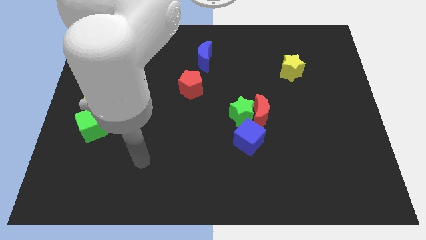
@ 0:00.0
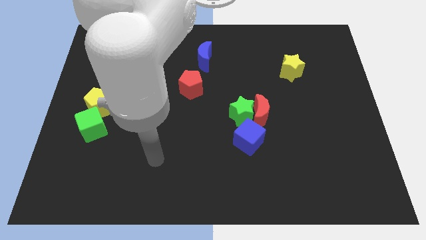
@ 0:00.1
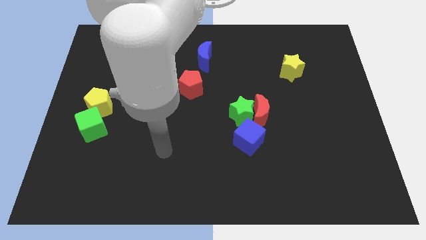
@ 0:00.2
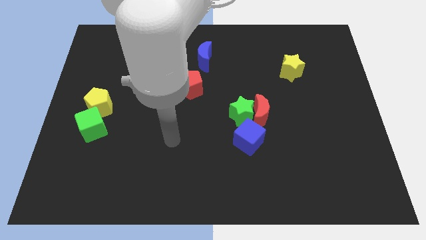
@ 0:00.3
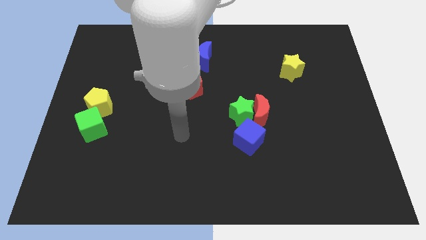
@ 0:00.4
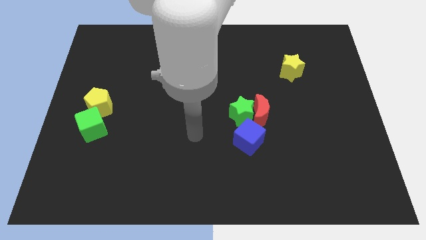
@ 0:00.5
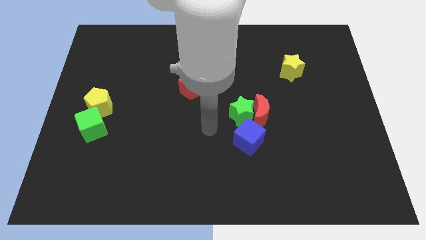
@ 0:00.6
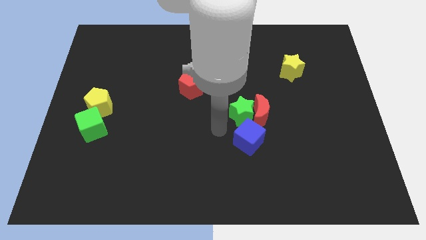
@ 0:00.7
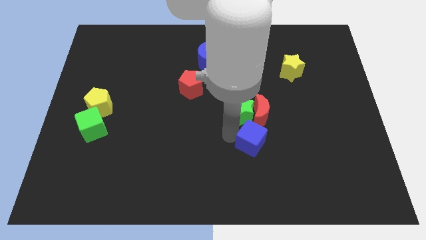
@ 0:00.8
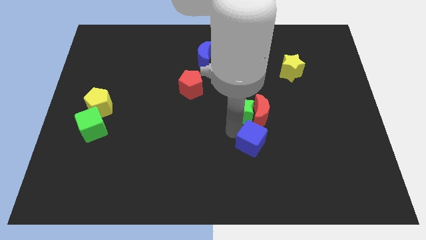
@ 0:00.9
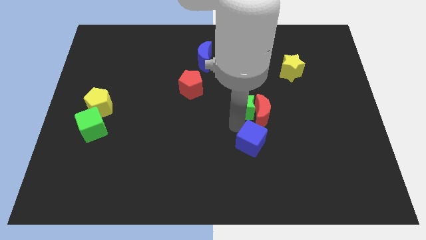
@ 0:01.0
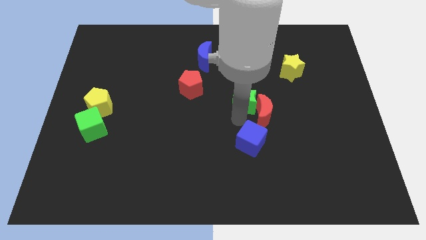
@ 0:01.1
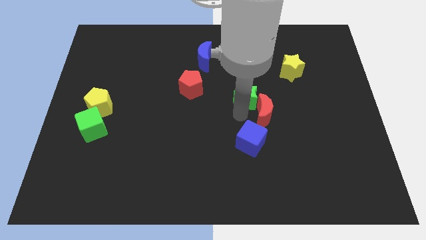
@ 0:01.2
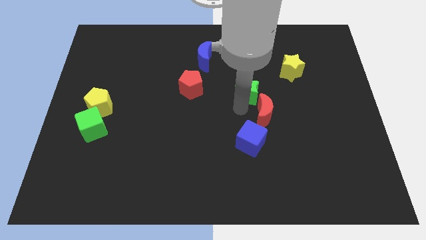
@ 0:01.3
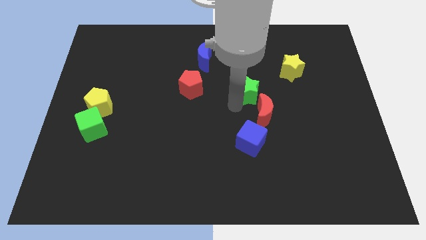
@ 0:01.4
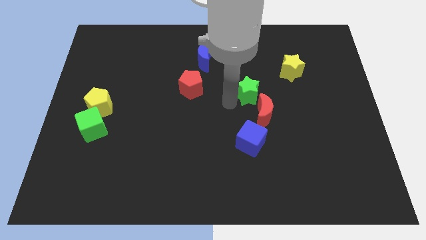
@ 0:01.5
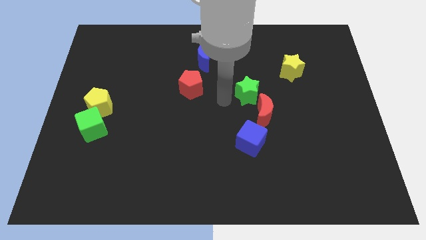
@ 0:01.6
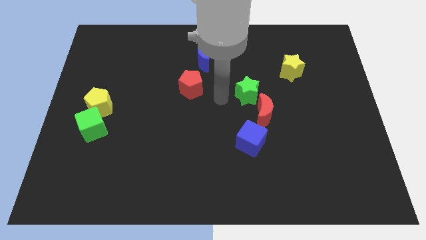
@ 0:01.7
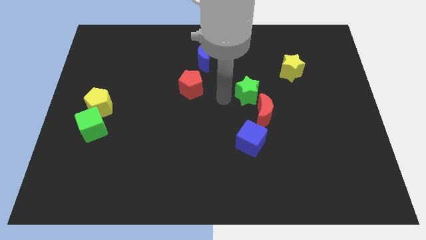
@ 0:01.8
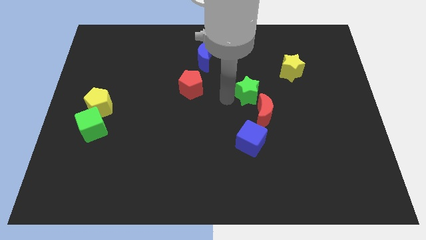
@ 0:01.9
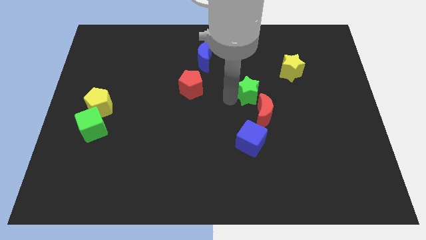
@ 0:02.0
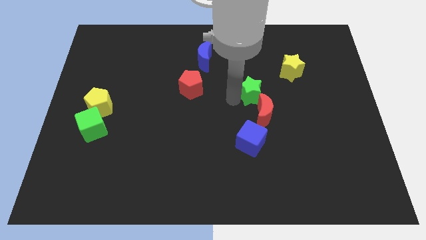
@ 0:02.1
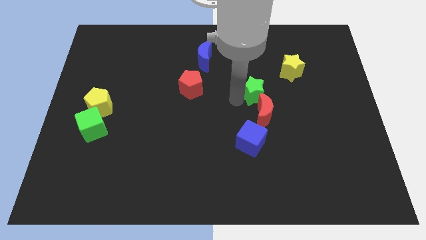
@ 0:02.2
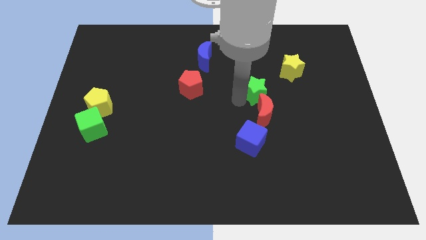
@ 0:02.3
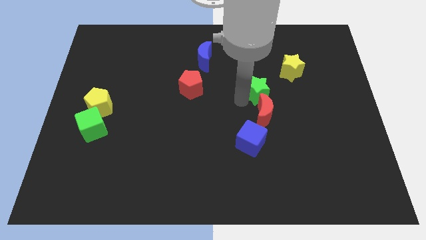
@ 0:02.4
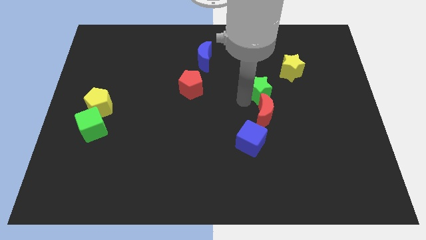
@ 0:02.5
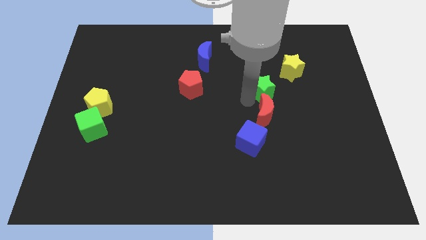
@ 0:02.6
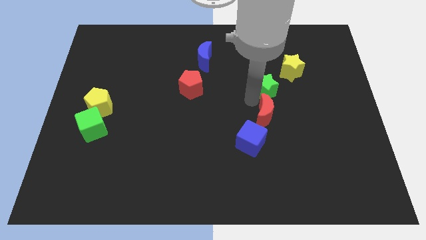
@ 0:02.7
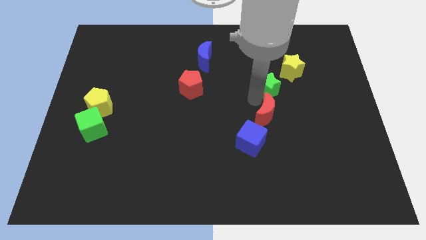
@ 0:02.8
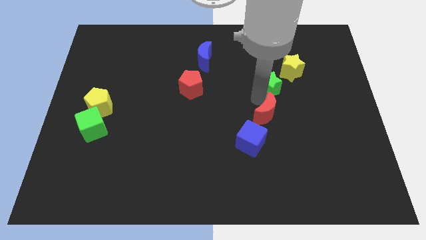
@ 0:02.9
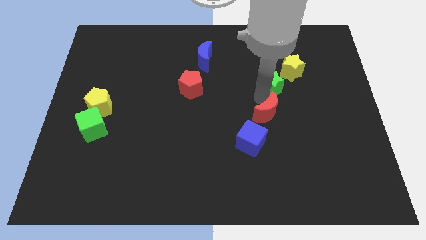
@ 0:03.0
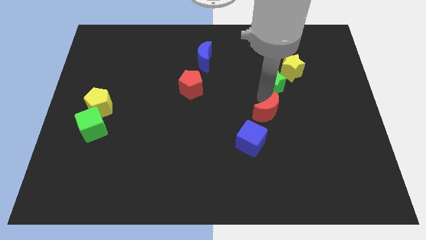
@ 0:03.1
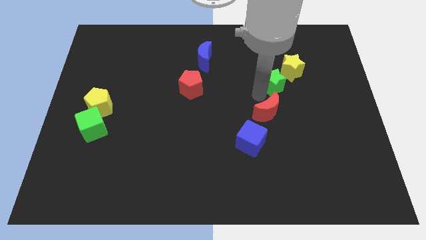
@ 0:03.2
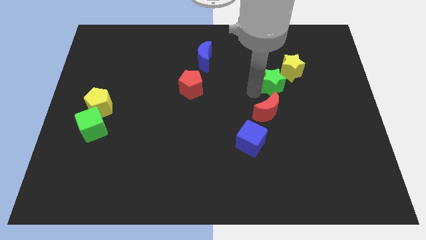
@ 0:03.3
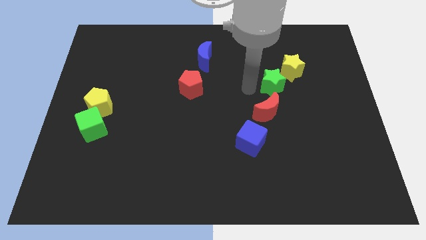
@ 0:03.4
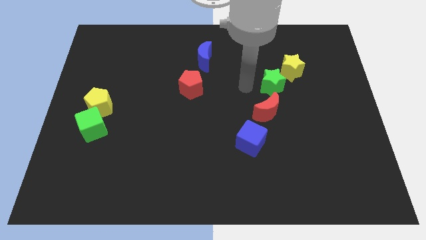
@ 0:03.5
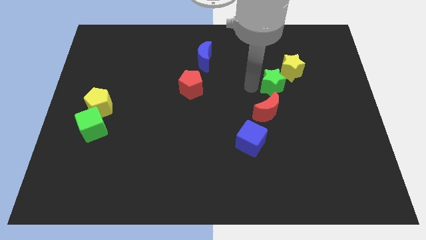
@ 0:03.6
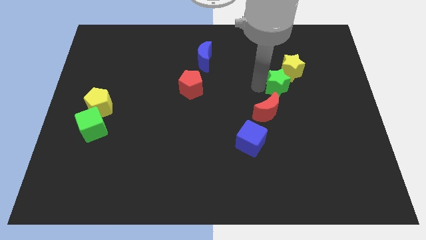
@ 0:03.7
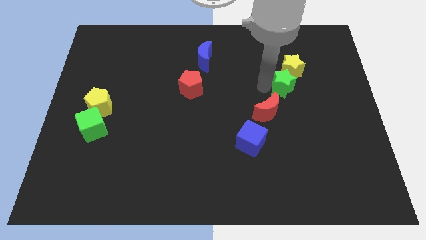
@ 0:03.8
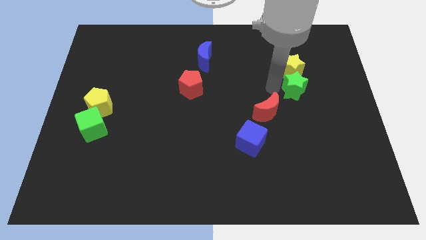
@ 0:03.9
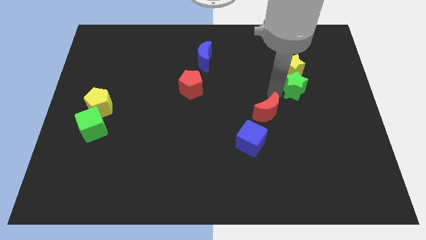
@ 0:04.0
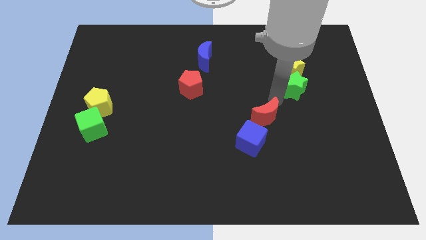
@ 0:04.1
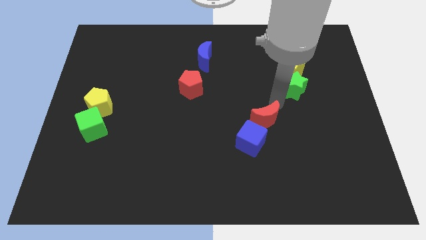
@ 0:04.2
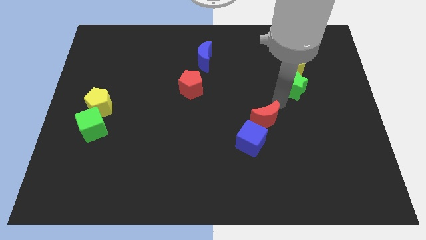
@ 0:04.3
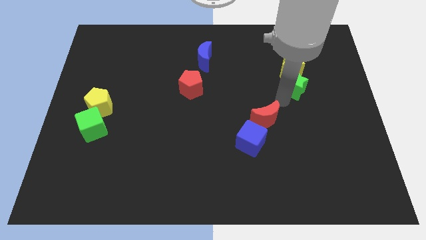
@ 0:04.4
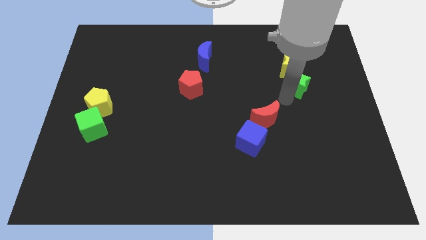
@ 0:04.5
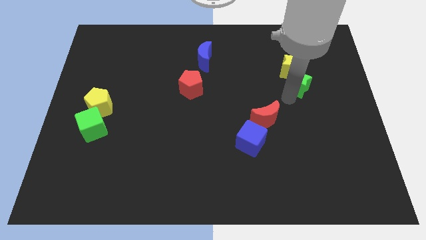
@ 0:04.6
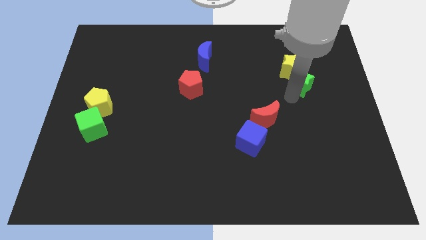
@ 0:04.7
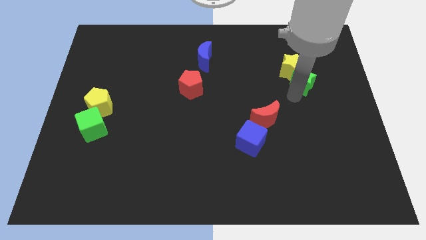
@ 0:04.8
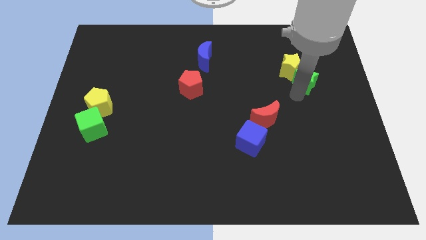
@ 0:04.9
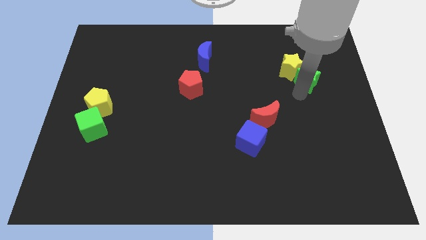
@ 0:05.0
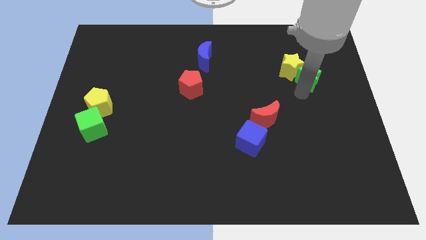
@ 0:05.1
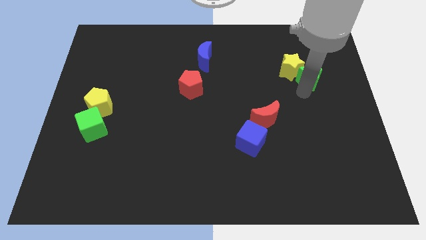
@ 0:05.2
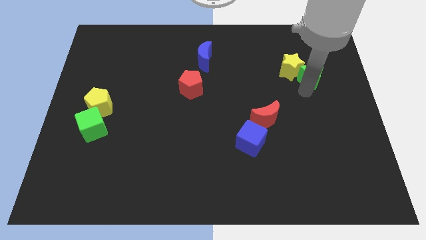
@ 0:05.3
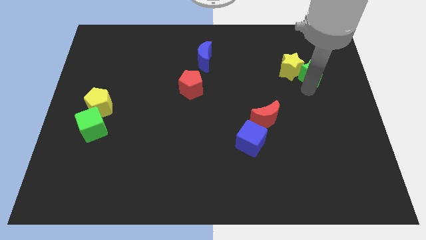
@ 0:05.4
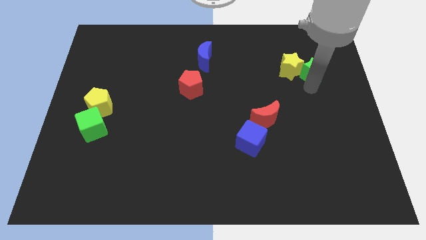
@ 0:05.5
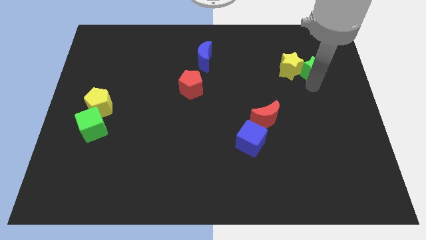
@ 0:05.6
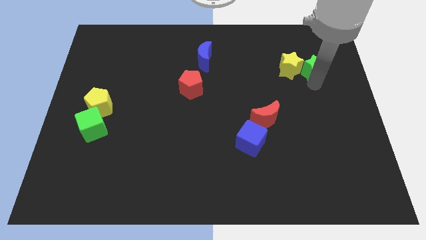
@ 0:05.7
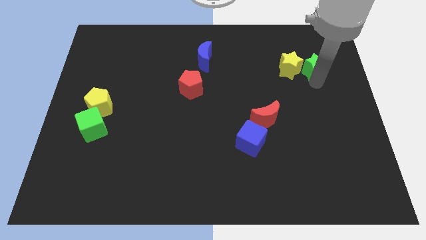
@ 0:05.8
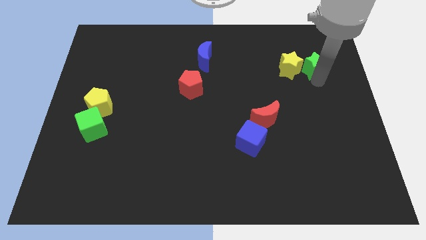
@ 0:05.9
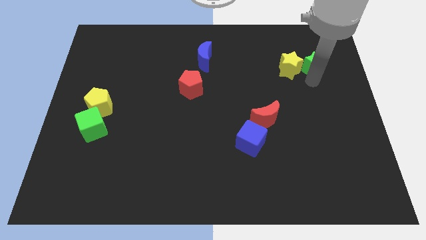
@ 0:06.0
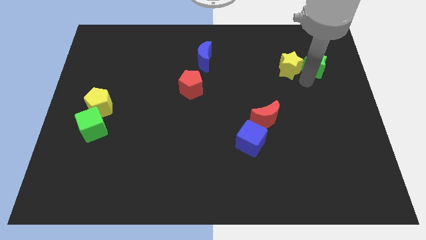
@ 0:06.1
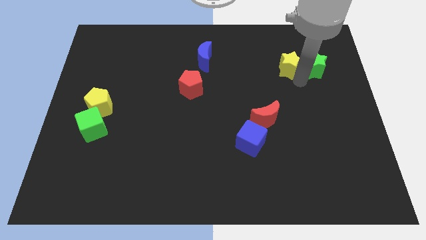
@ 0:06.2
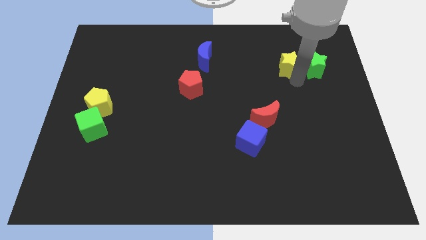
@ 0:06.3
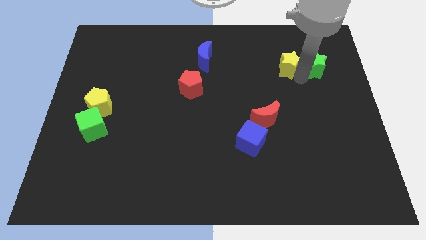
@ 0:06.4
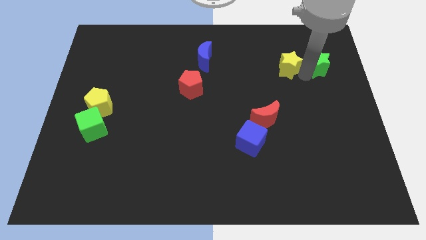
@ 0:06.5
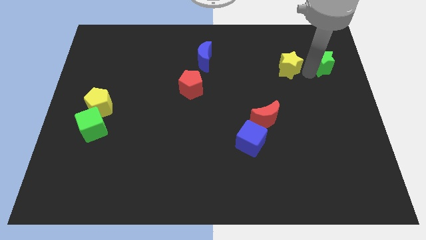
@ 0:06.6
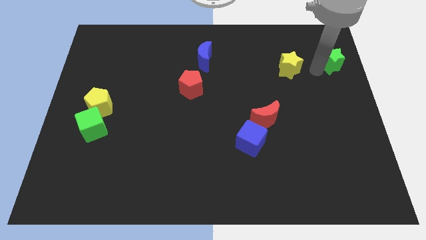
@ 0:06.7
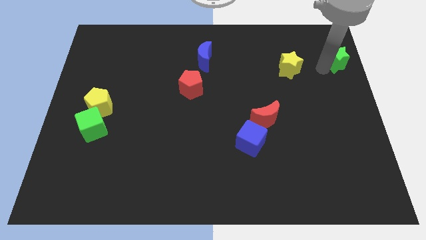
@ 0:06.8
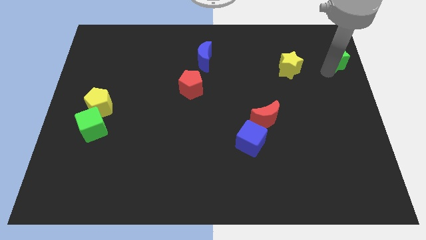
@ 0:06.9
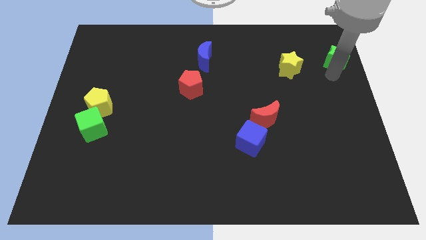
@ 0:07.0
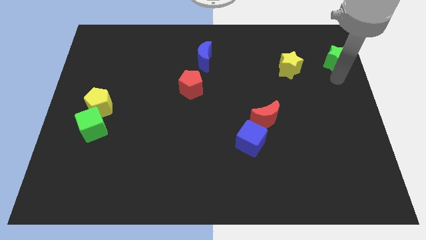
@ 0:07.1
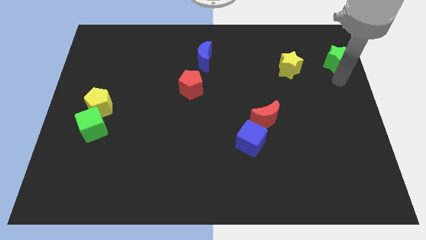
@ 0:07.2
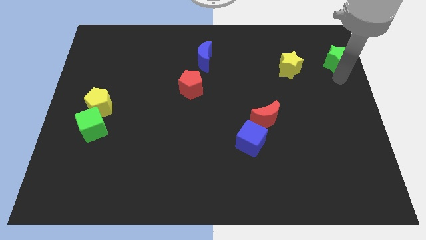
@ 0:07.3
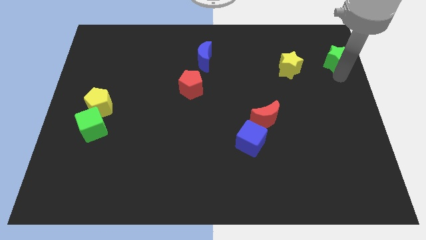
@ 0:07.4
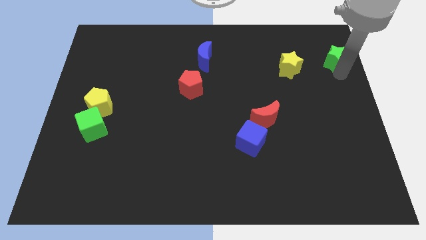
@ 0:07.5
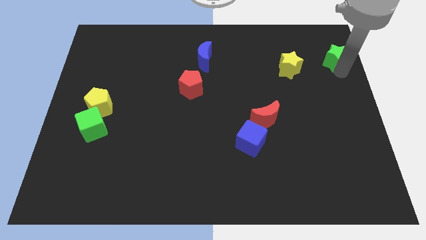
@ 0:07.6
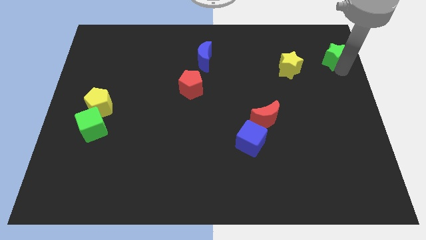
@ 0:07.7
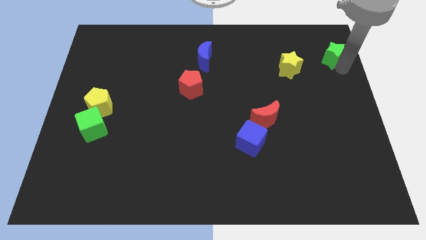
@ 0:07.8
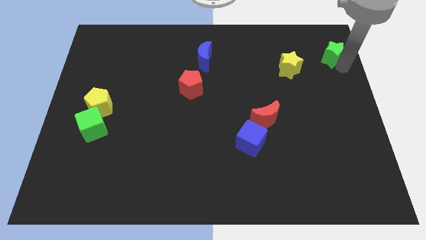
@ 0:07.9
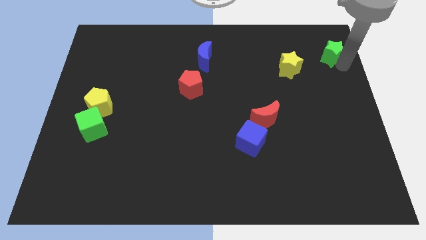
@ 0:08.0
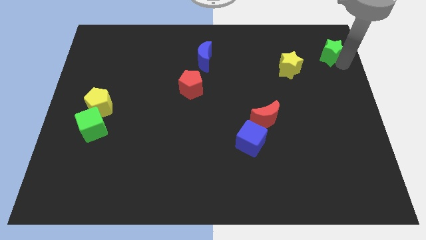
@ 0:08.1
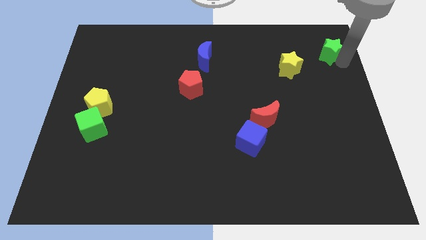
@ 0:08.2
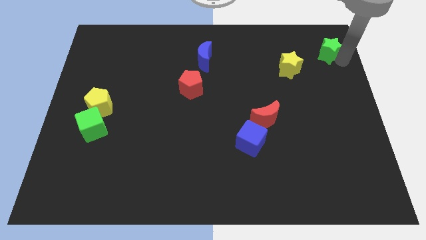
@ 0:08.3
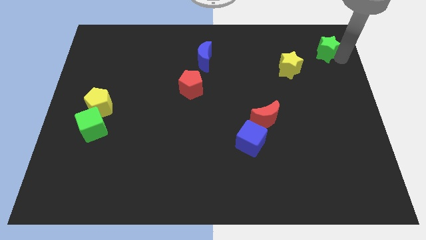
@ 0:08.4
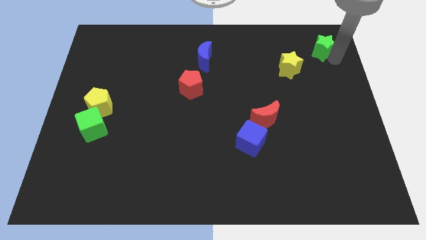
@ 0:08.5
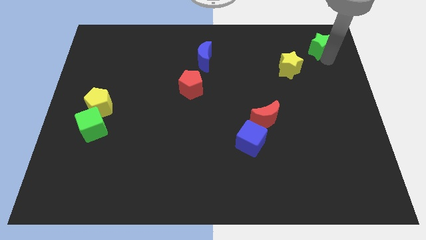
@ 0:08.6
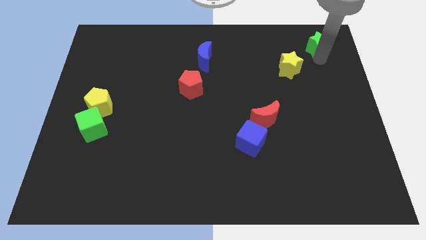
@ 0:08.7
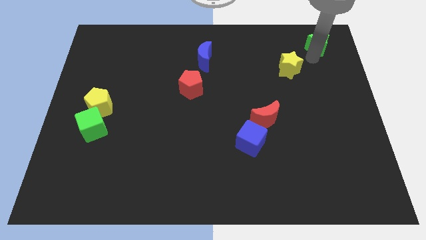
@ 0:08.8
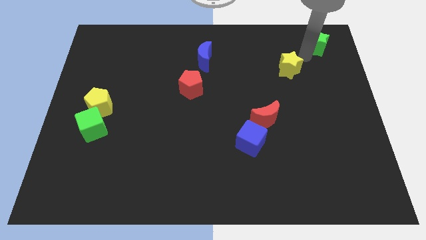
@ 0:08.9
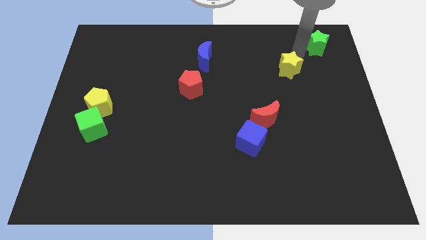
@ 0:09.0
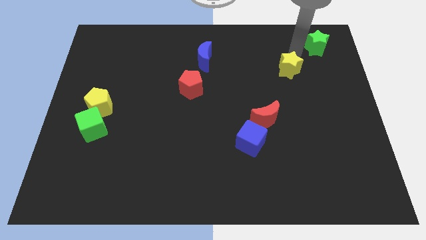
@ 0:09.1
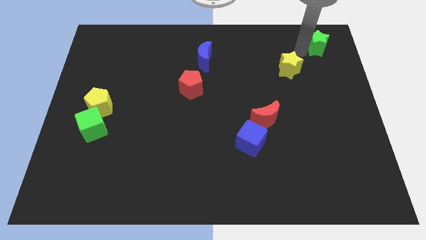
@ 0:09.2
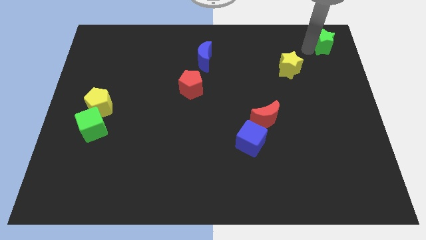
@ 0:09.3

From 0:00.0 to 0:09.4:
slide the green star to the top right
